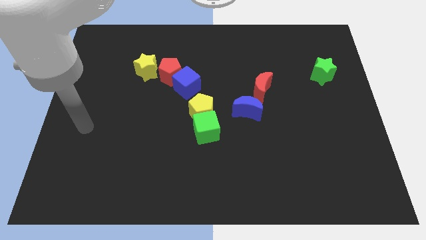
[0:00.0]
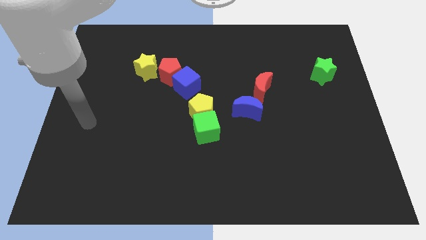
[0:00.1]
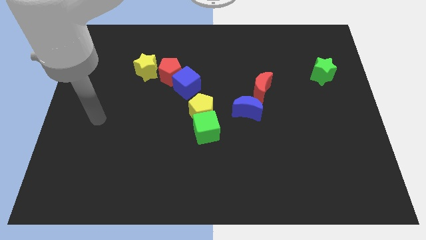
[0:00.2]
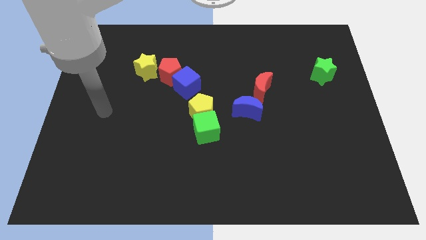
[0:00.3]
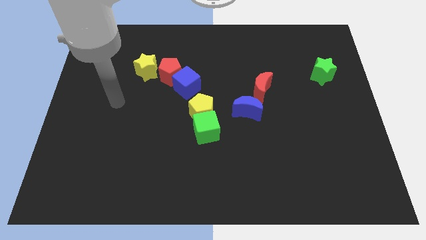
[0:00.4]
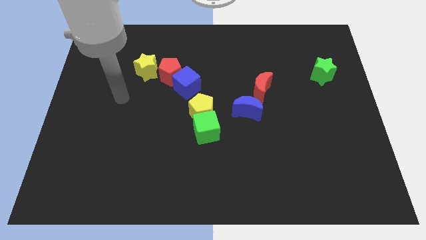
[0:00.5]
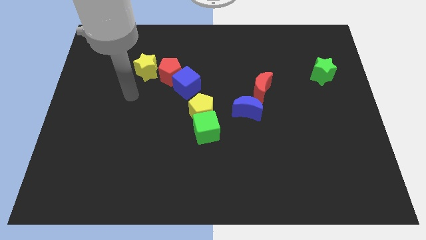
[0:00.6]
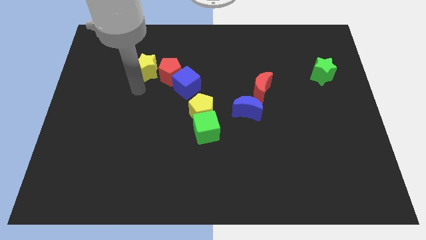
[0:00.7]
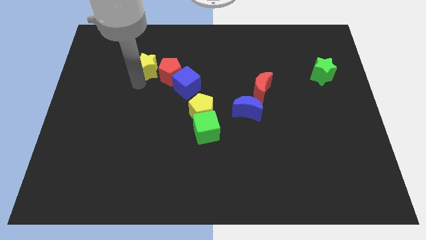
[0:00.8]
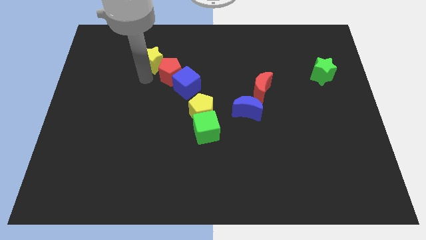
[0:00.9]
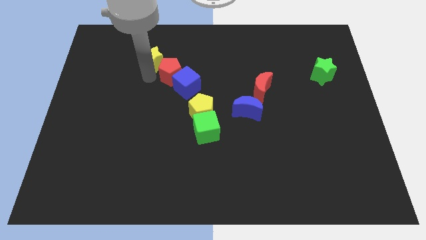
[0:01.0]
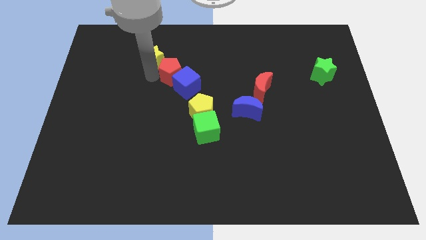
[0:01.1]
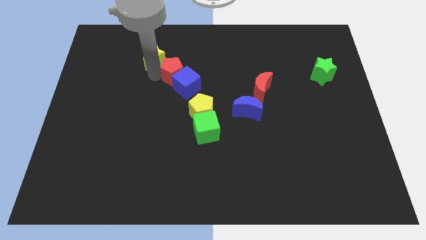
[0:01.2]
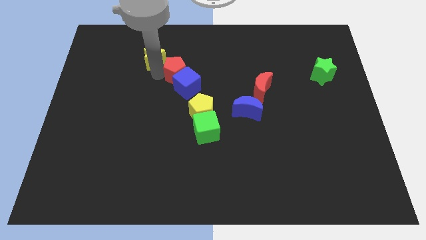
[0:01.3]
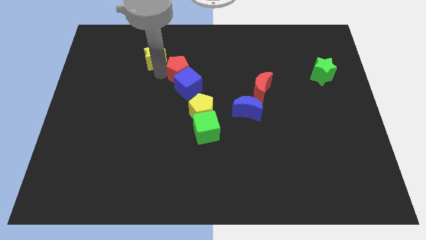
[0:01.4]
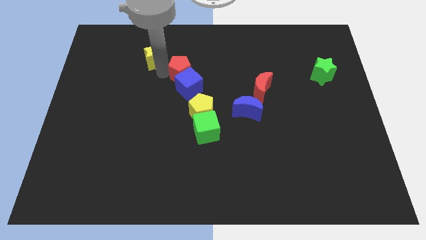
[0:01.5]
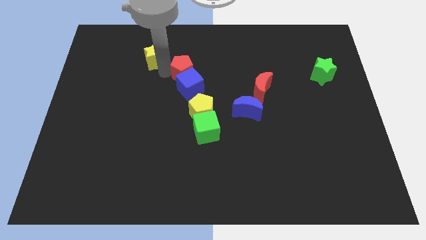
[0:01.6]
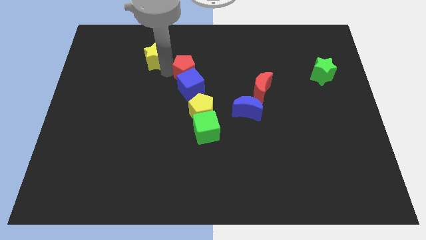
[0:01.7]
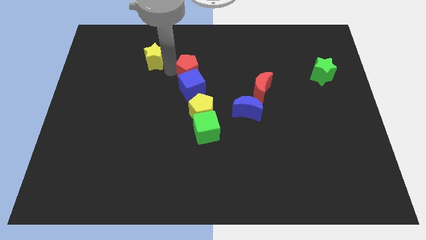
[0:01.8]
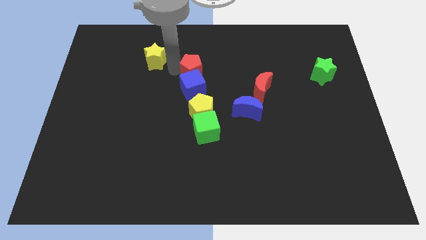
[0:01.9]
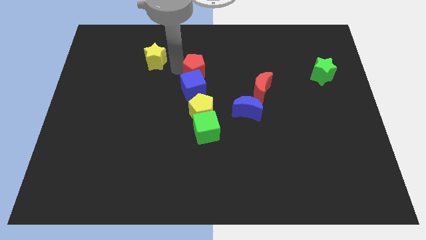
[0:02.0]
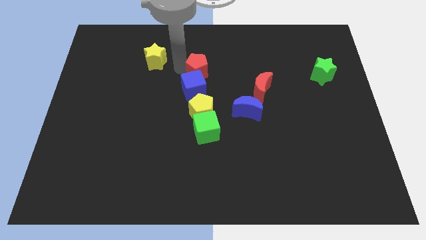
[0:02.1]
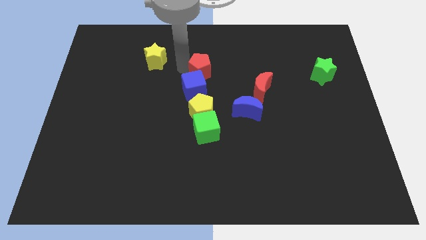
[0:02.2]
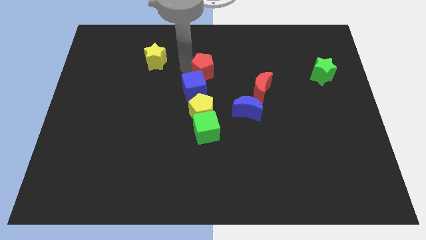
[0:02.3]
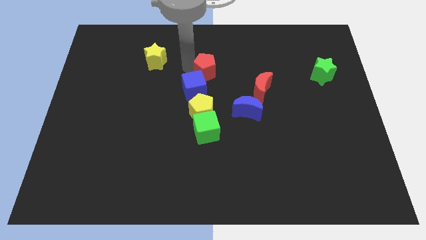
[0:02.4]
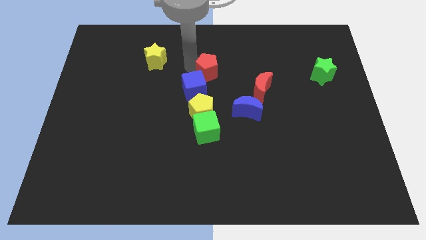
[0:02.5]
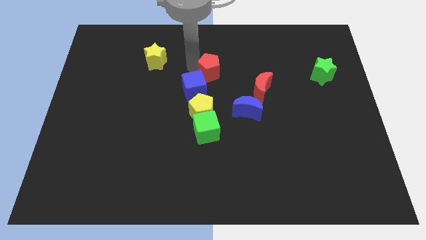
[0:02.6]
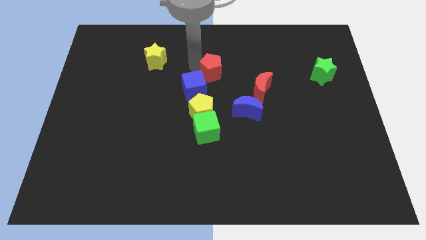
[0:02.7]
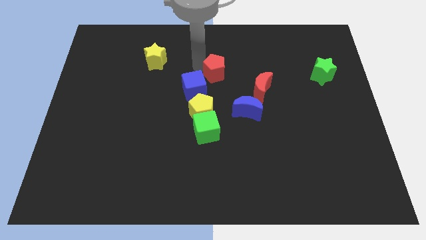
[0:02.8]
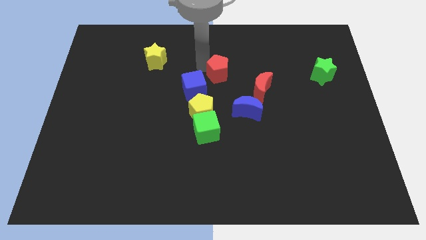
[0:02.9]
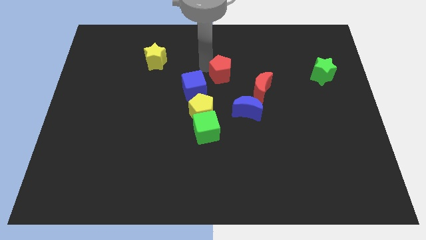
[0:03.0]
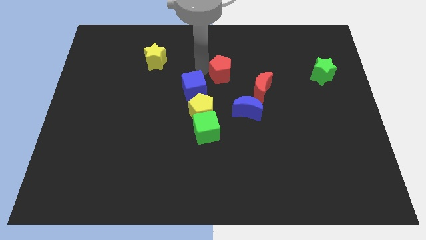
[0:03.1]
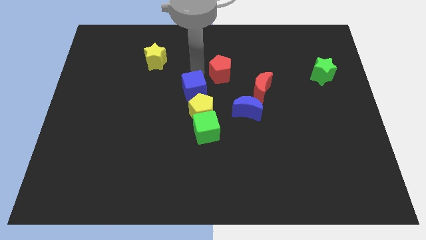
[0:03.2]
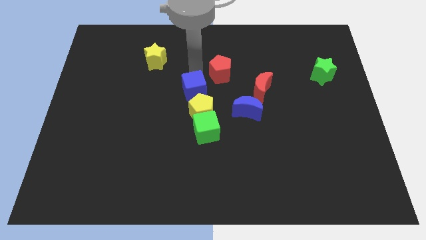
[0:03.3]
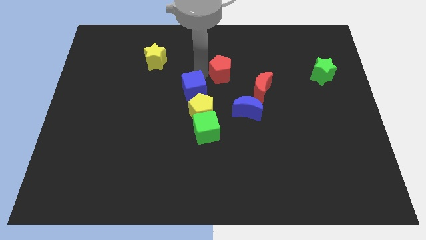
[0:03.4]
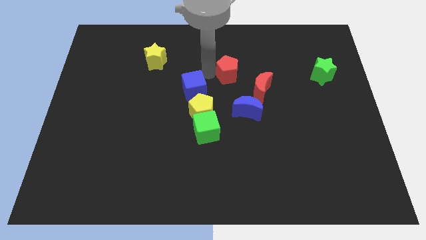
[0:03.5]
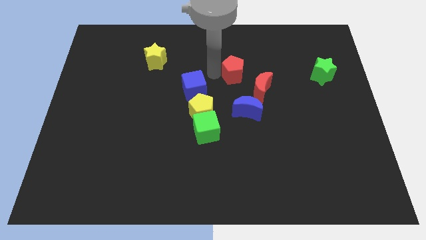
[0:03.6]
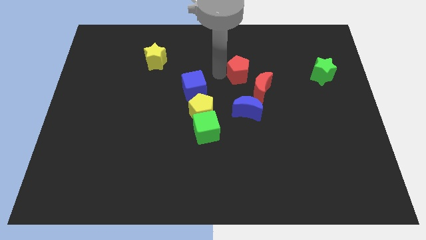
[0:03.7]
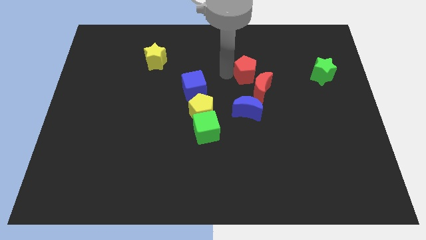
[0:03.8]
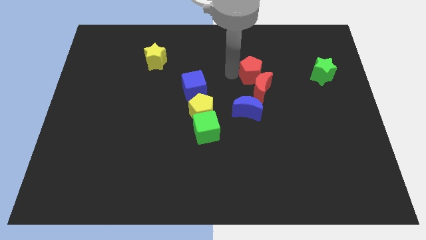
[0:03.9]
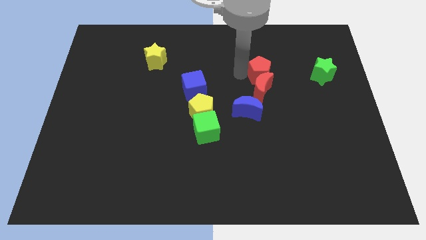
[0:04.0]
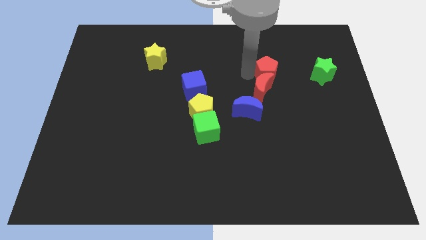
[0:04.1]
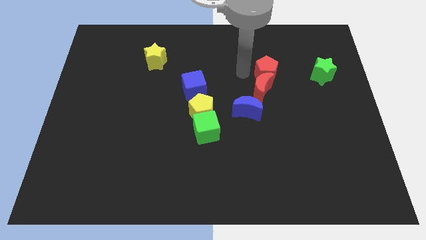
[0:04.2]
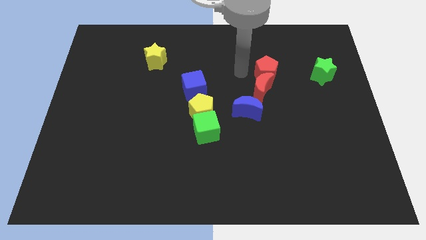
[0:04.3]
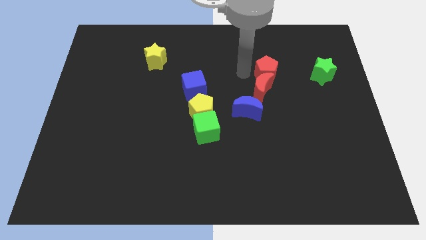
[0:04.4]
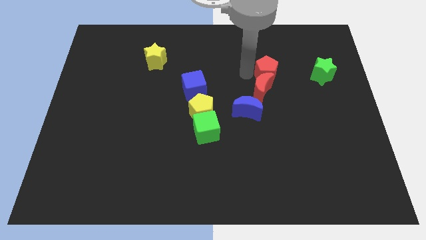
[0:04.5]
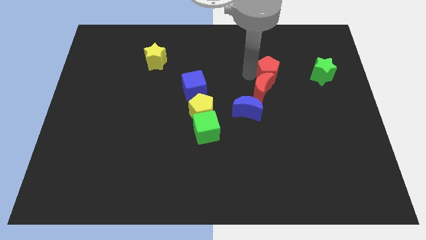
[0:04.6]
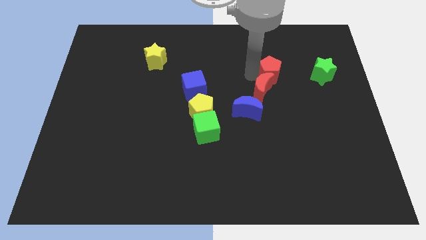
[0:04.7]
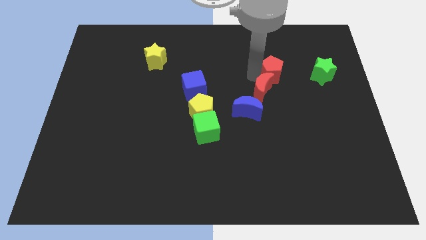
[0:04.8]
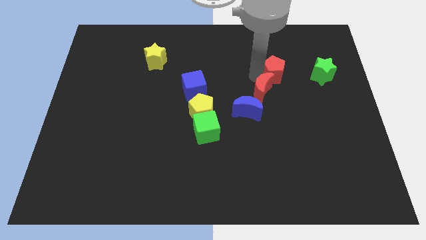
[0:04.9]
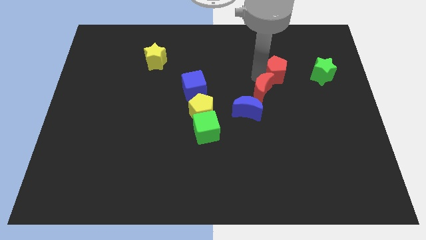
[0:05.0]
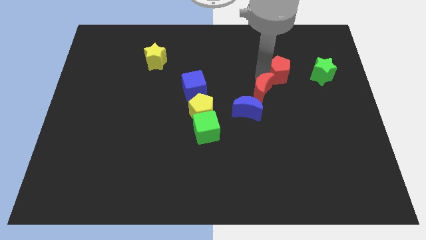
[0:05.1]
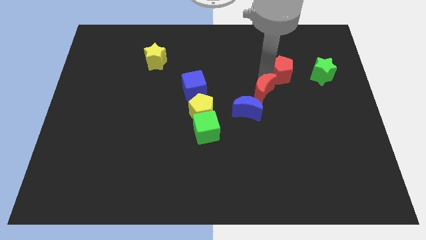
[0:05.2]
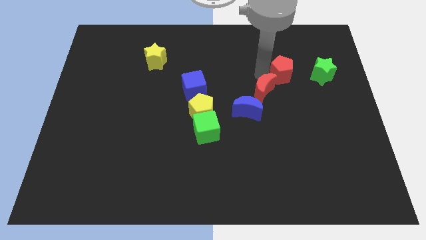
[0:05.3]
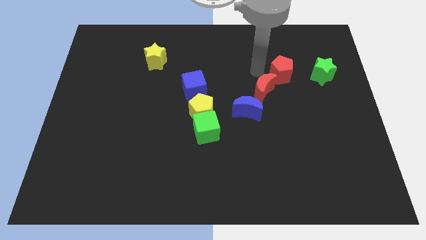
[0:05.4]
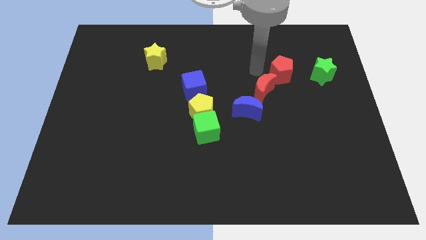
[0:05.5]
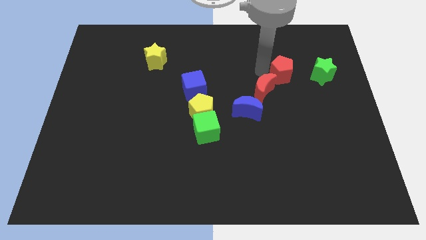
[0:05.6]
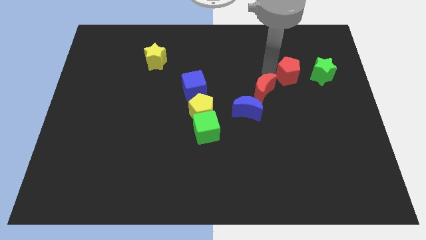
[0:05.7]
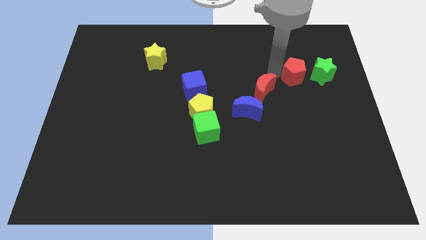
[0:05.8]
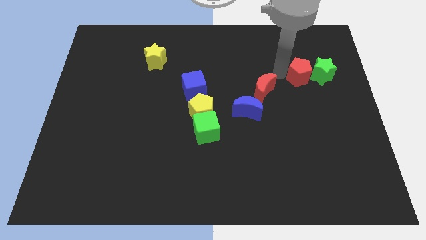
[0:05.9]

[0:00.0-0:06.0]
move the red pentagon next to the green star
